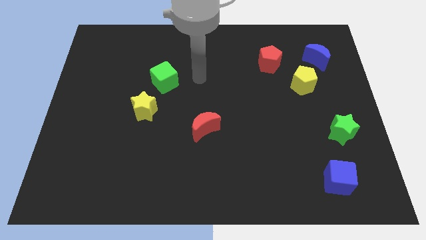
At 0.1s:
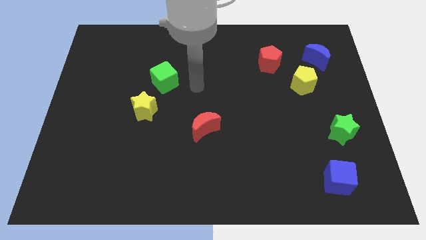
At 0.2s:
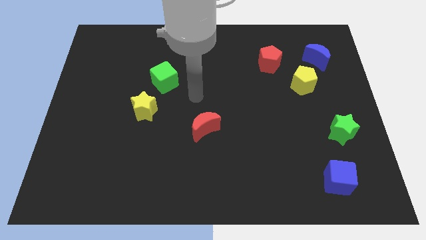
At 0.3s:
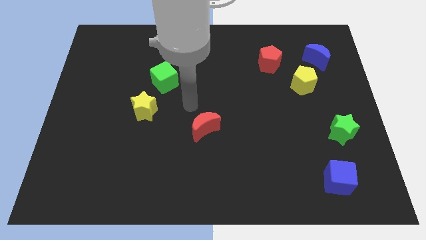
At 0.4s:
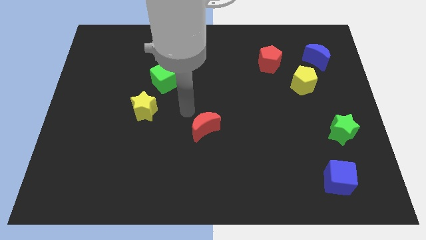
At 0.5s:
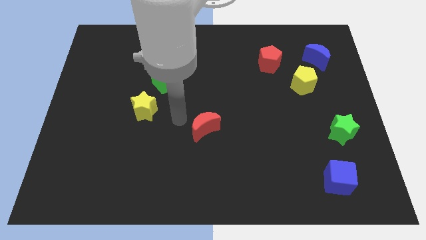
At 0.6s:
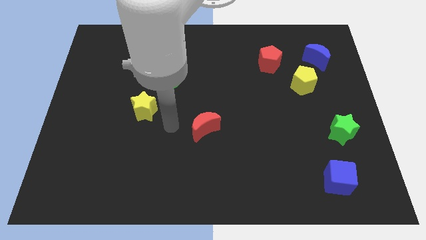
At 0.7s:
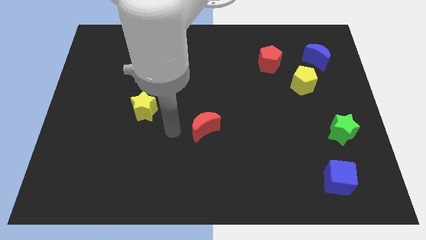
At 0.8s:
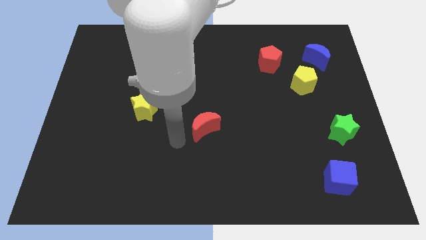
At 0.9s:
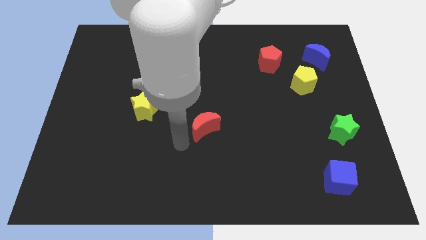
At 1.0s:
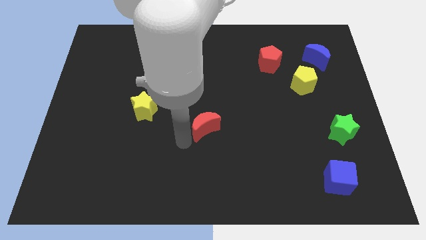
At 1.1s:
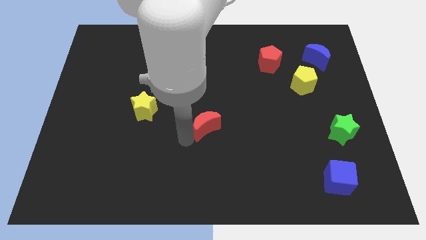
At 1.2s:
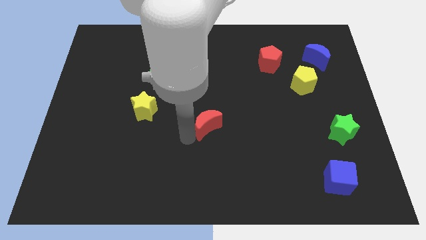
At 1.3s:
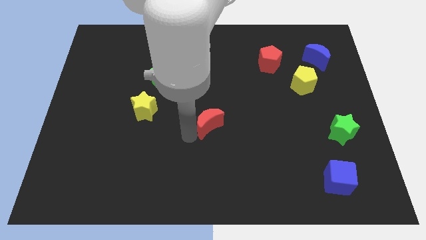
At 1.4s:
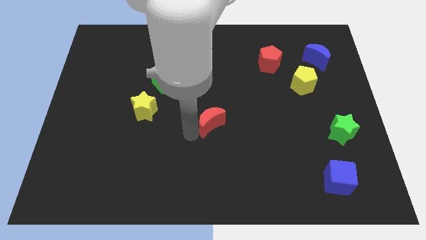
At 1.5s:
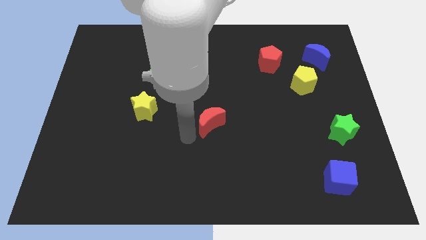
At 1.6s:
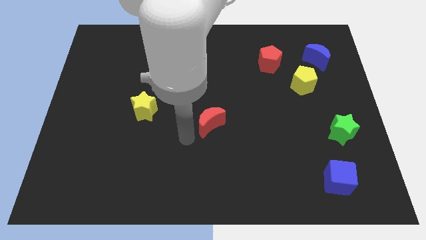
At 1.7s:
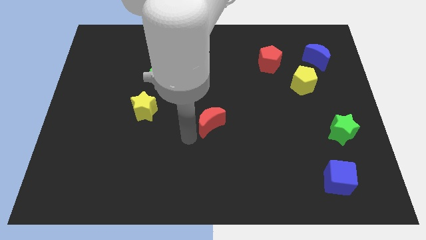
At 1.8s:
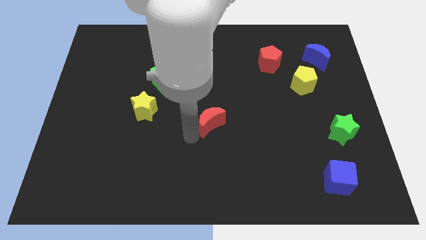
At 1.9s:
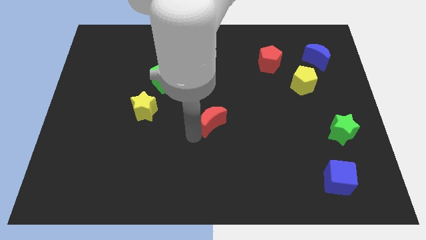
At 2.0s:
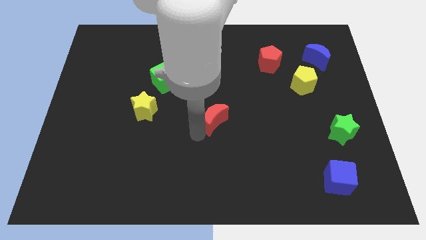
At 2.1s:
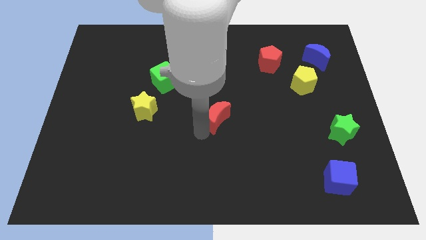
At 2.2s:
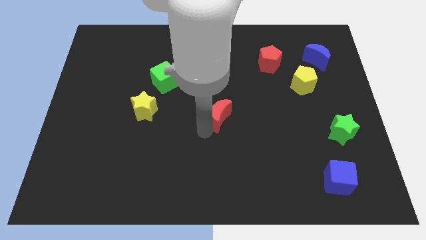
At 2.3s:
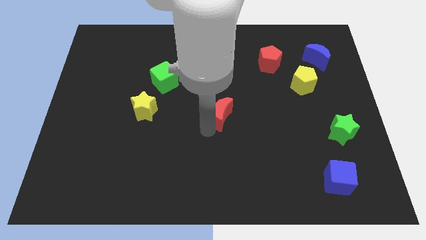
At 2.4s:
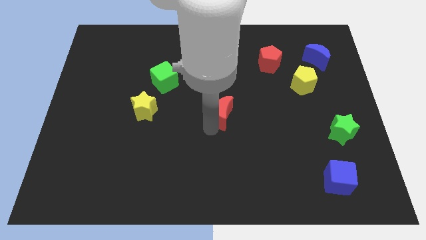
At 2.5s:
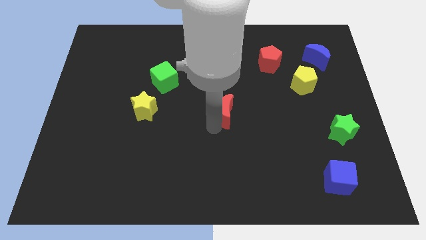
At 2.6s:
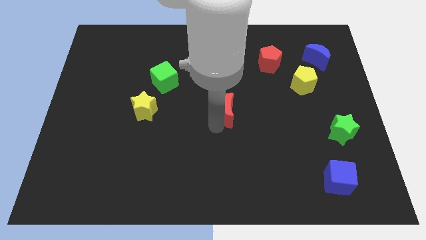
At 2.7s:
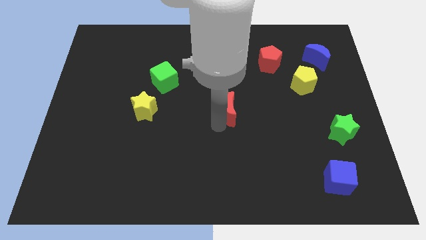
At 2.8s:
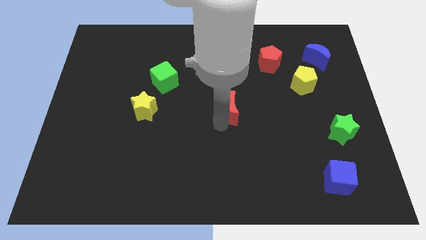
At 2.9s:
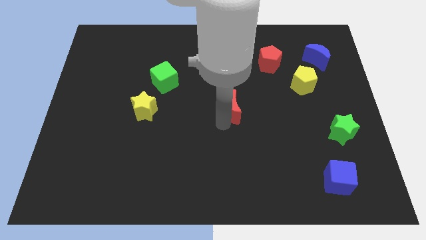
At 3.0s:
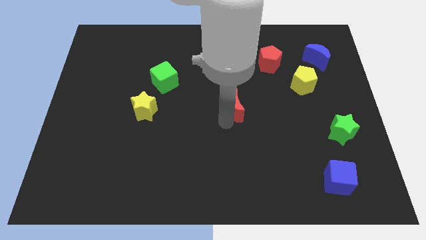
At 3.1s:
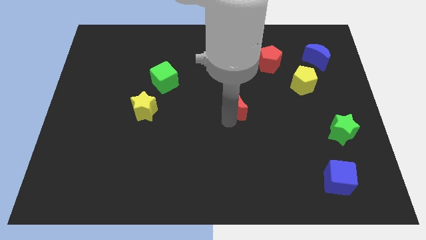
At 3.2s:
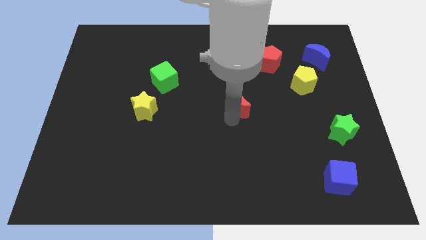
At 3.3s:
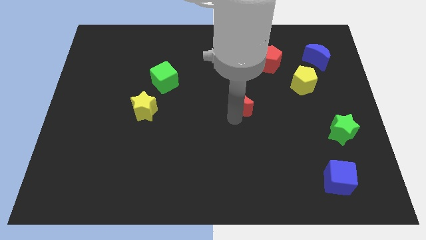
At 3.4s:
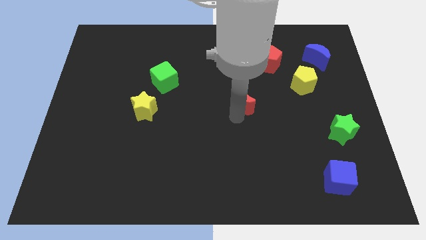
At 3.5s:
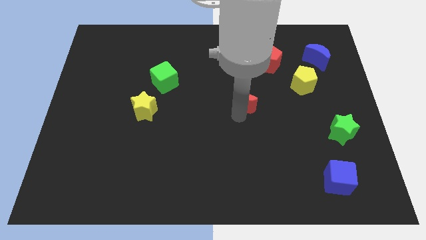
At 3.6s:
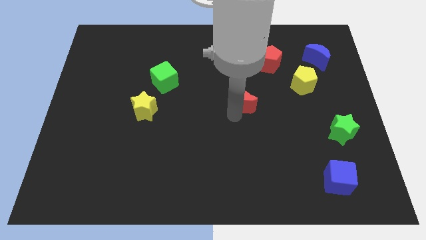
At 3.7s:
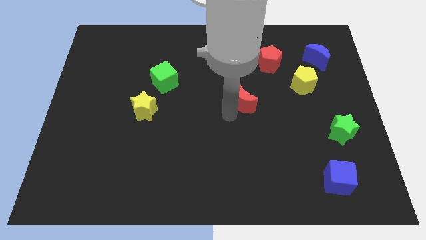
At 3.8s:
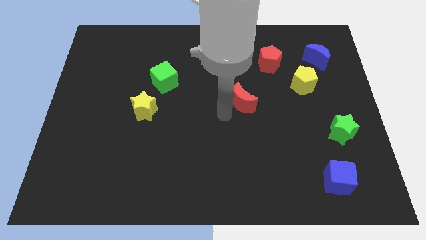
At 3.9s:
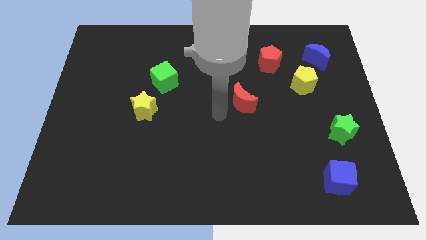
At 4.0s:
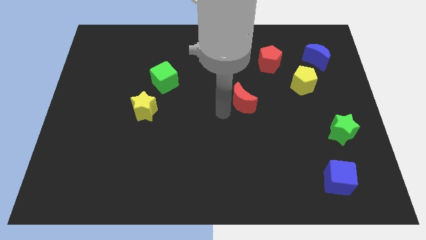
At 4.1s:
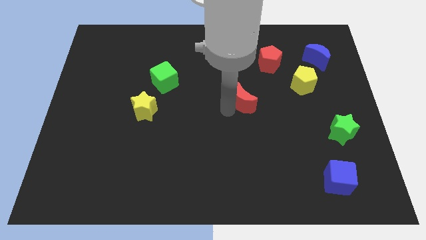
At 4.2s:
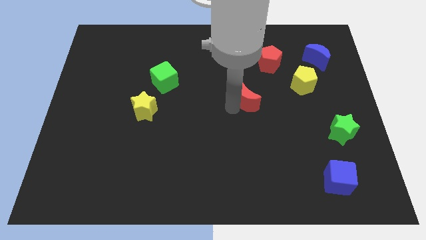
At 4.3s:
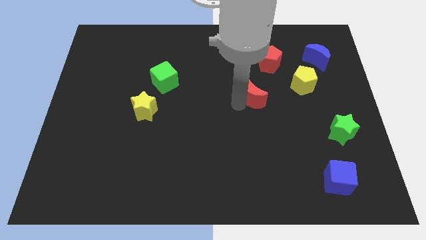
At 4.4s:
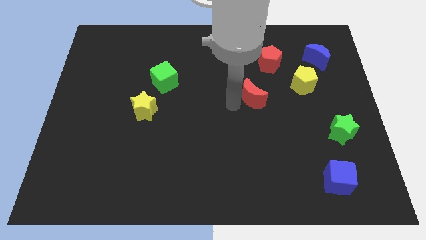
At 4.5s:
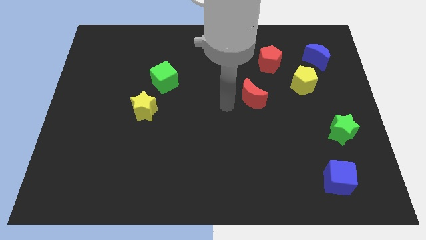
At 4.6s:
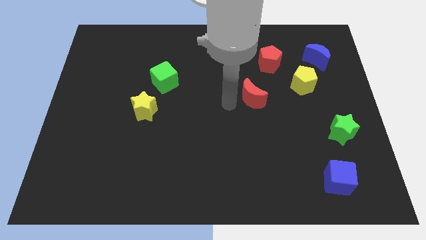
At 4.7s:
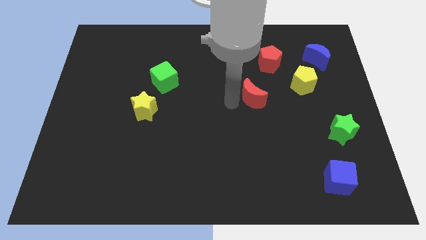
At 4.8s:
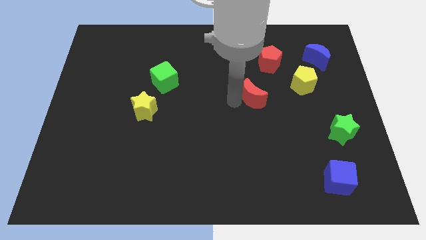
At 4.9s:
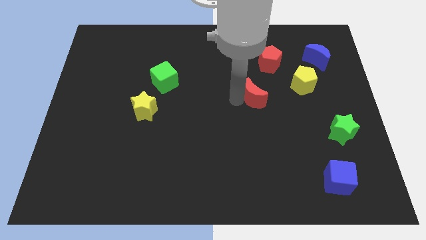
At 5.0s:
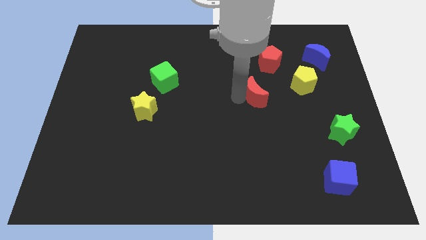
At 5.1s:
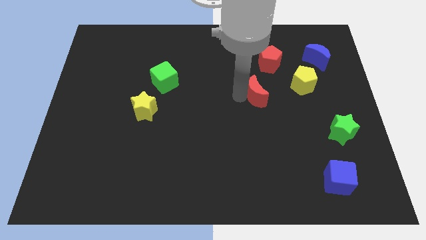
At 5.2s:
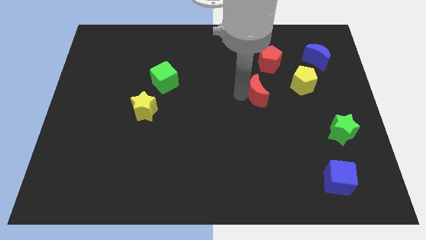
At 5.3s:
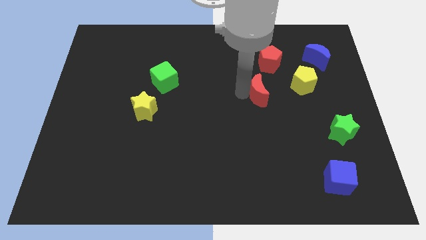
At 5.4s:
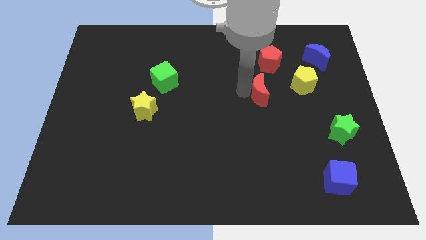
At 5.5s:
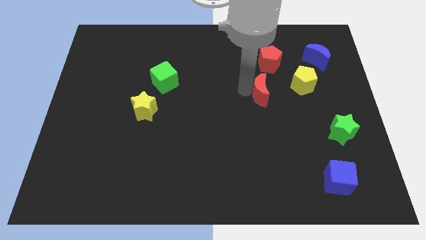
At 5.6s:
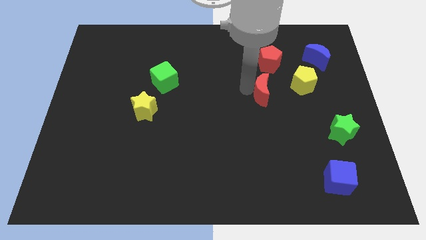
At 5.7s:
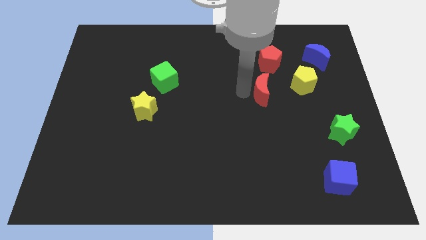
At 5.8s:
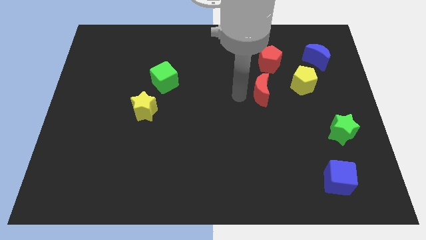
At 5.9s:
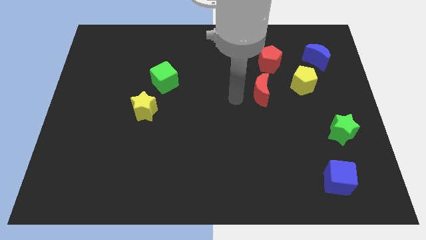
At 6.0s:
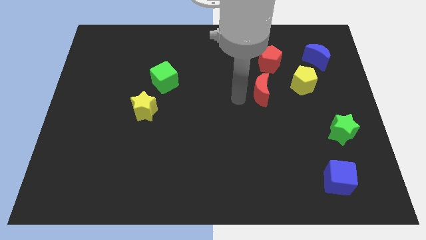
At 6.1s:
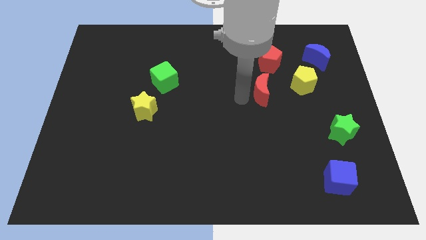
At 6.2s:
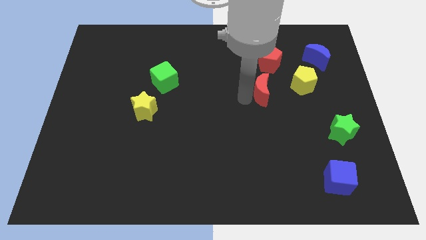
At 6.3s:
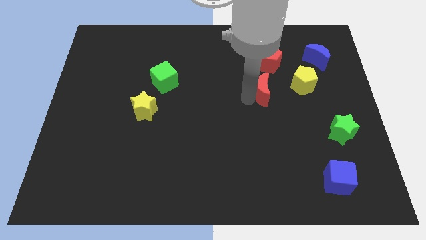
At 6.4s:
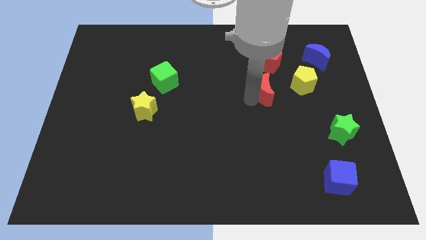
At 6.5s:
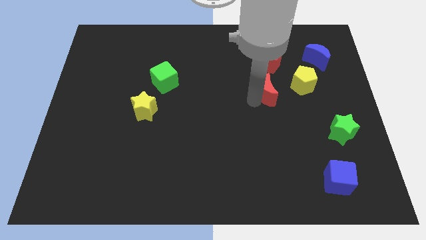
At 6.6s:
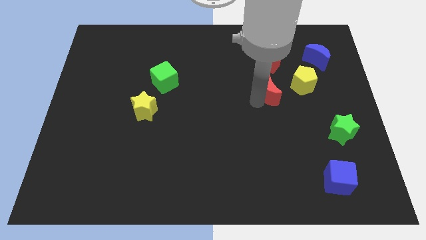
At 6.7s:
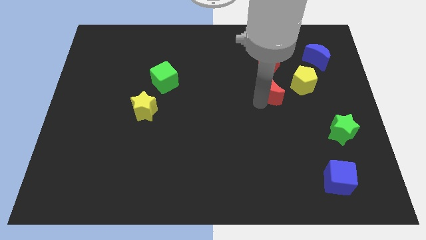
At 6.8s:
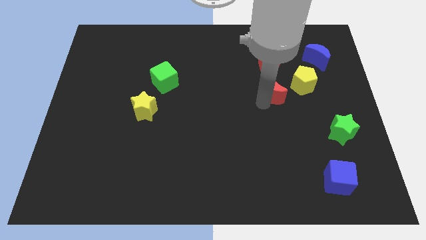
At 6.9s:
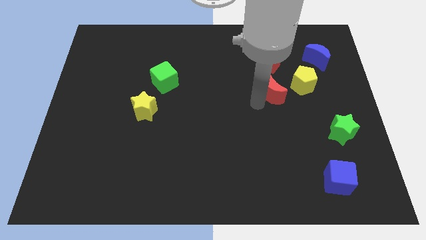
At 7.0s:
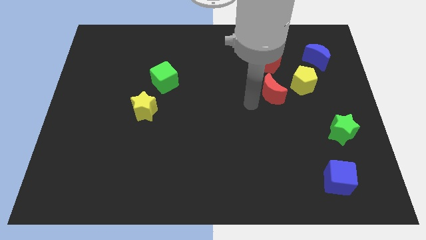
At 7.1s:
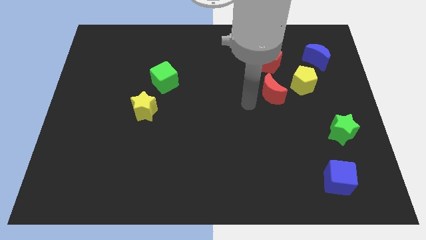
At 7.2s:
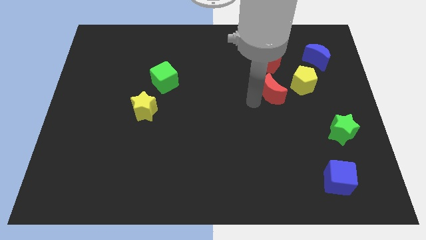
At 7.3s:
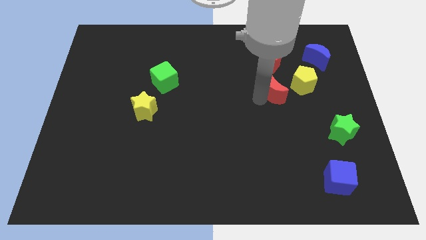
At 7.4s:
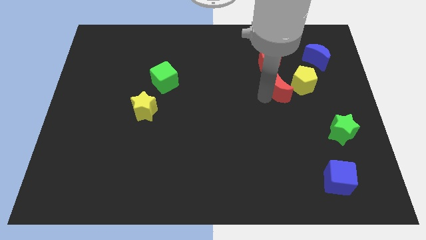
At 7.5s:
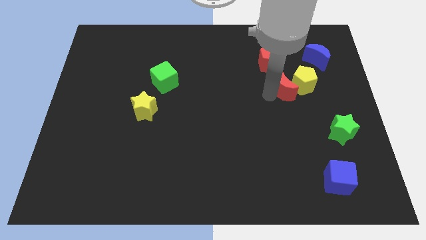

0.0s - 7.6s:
slide the red moon to the yellow pentagon
